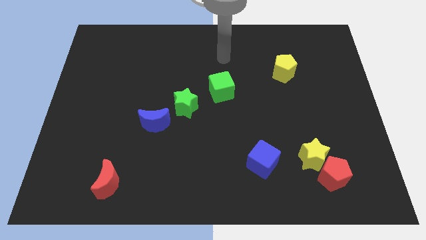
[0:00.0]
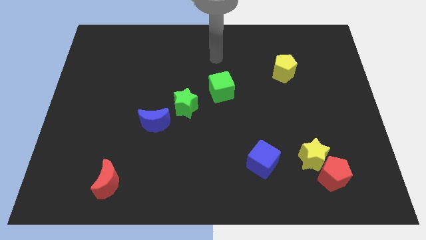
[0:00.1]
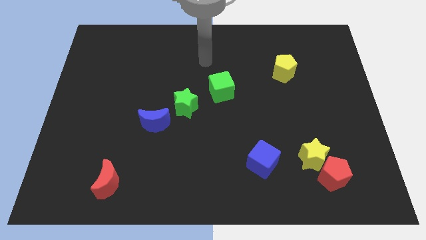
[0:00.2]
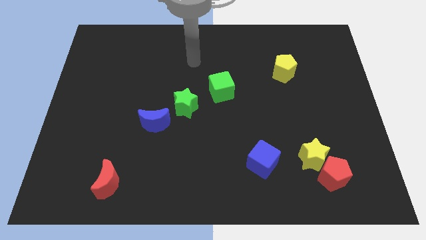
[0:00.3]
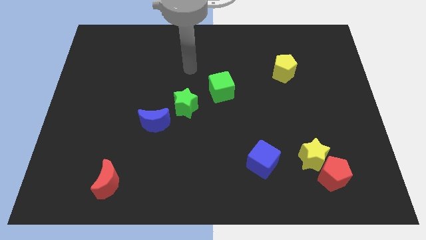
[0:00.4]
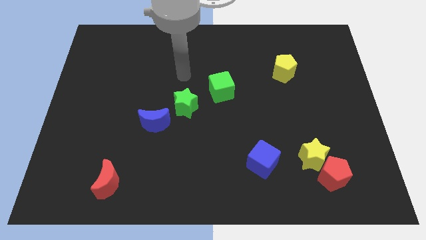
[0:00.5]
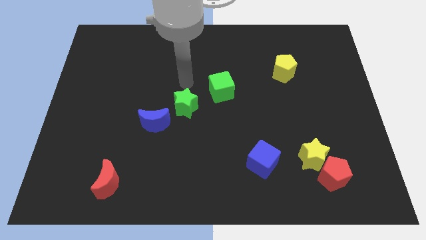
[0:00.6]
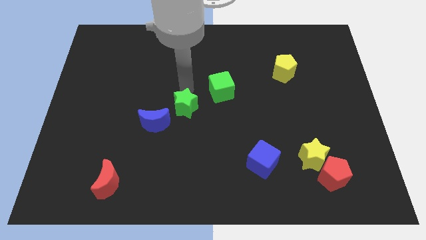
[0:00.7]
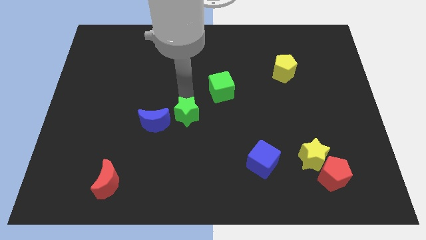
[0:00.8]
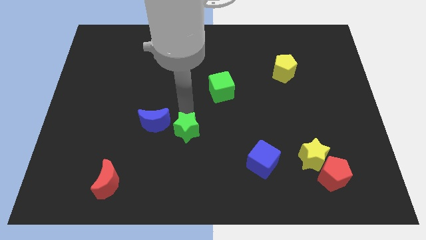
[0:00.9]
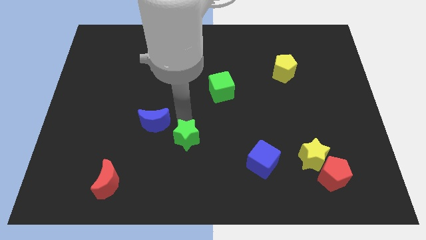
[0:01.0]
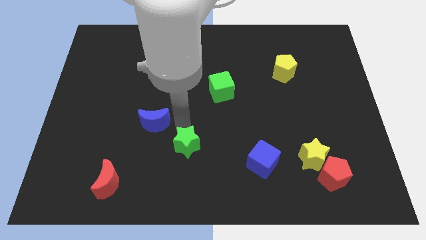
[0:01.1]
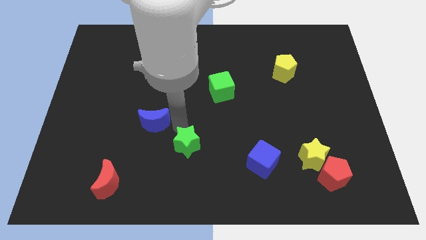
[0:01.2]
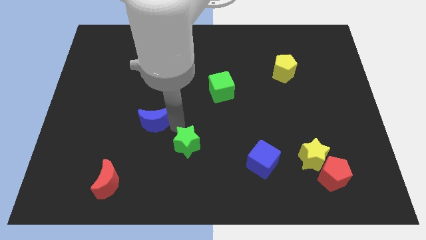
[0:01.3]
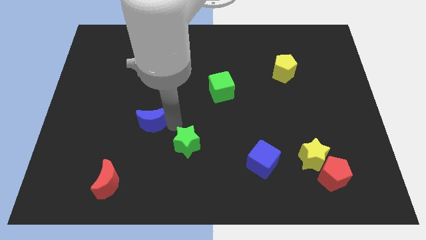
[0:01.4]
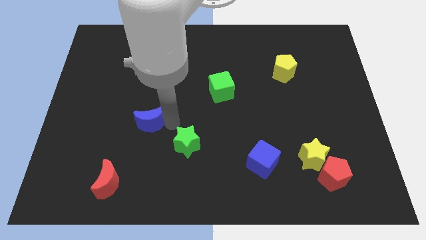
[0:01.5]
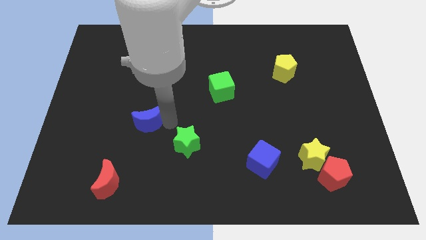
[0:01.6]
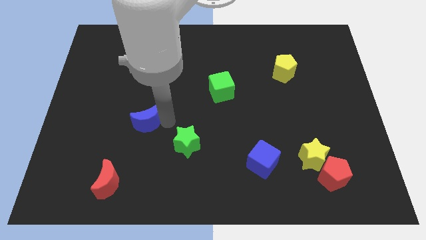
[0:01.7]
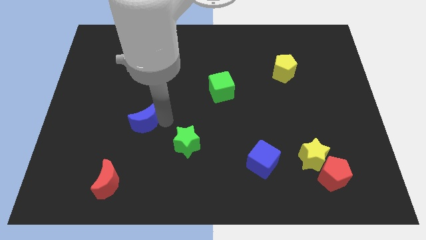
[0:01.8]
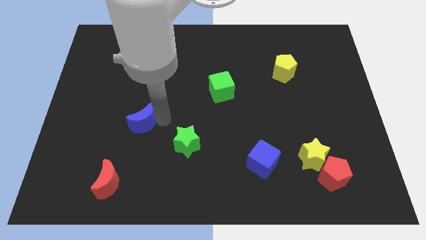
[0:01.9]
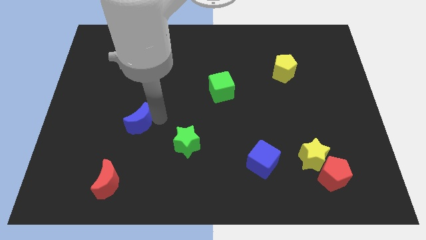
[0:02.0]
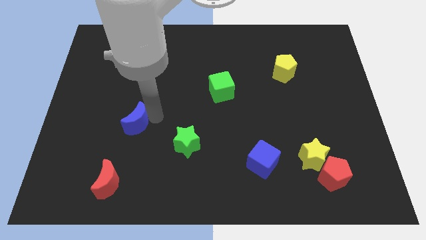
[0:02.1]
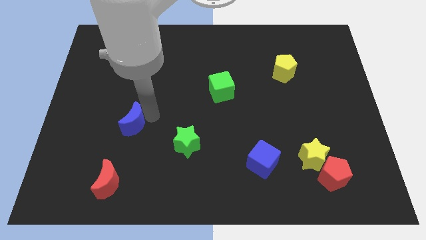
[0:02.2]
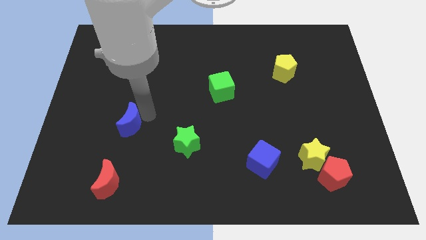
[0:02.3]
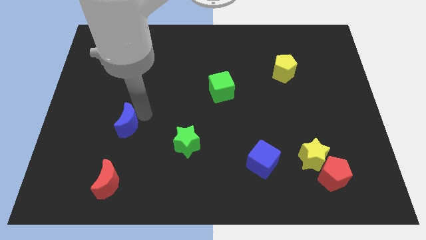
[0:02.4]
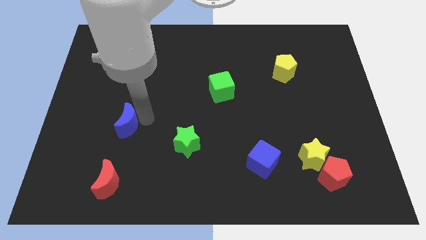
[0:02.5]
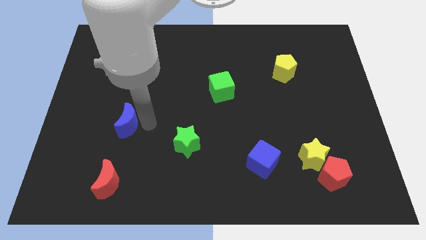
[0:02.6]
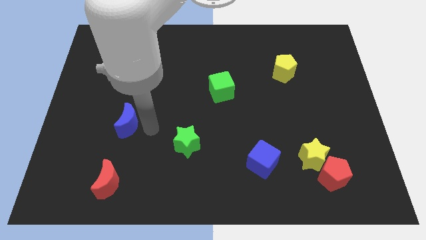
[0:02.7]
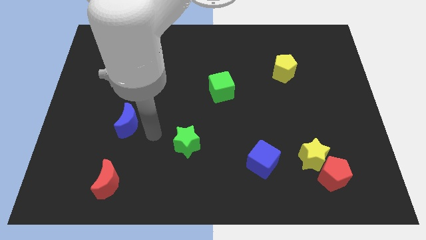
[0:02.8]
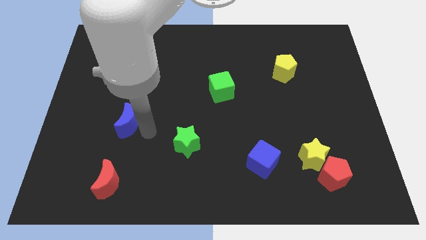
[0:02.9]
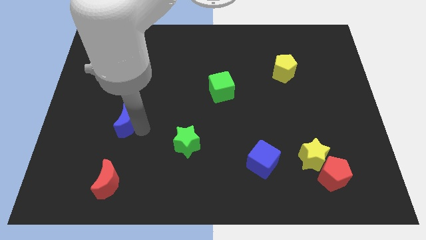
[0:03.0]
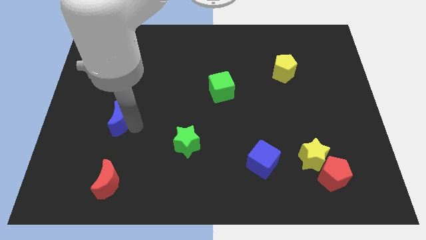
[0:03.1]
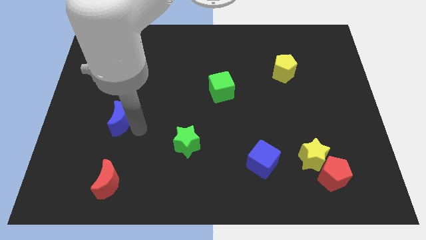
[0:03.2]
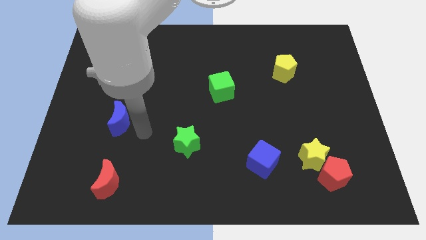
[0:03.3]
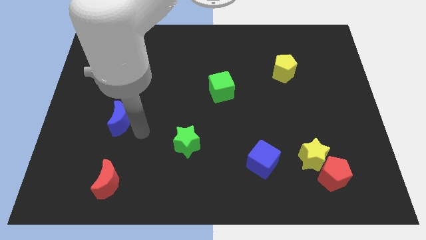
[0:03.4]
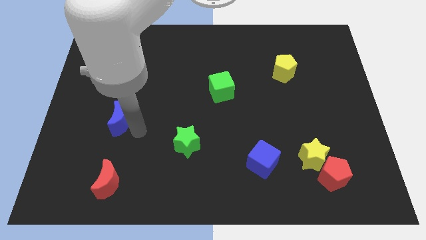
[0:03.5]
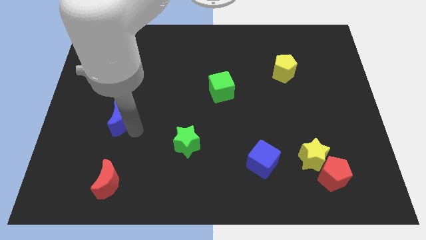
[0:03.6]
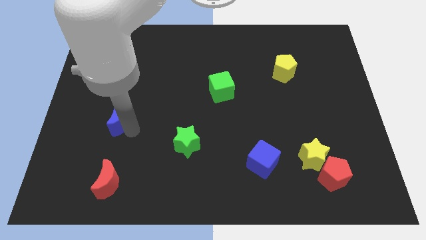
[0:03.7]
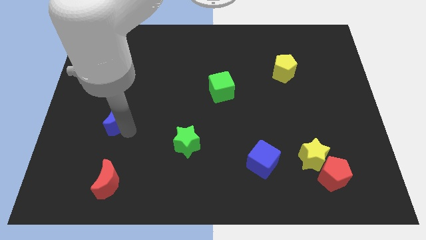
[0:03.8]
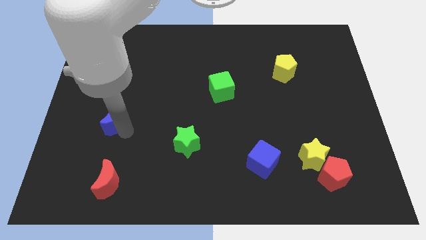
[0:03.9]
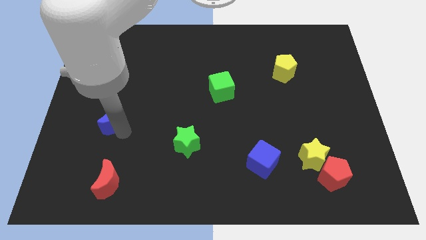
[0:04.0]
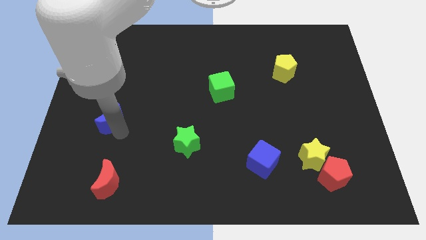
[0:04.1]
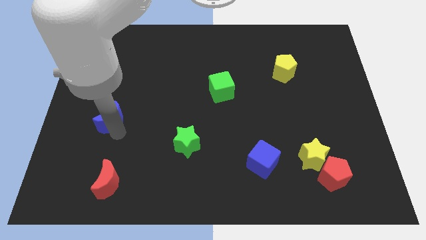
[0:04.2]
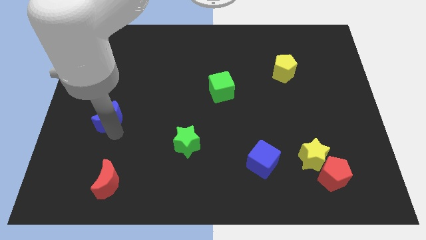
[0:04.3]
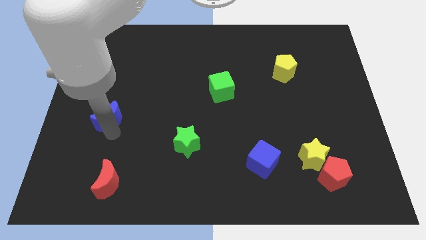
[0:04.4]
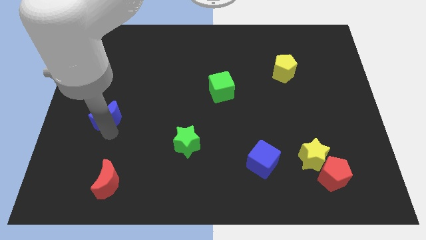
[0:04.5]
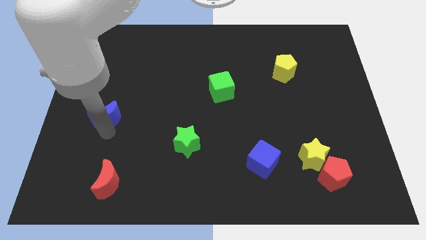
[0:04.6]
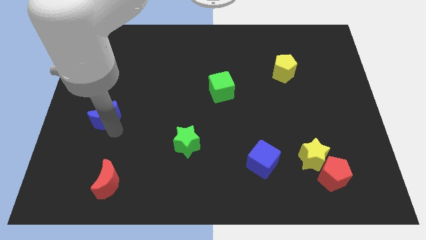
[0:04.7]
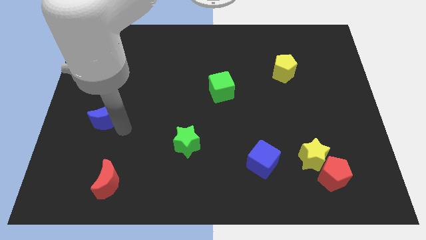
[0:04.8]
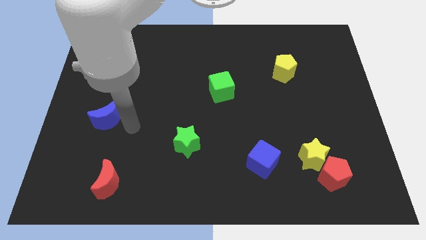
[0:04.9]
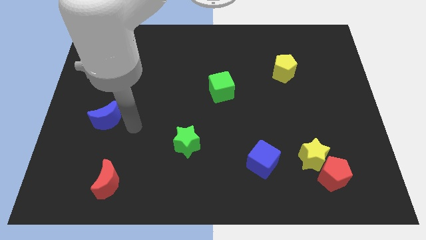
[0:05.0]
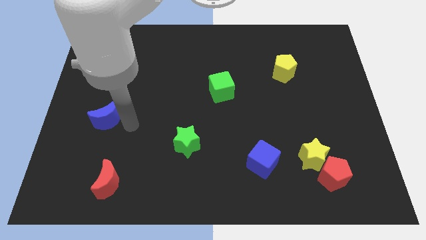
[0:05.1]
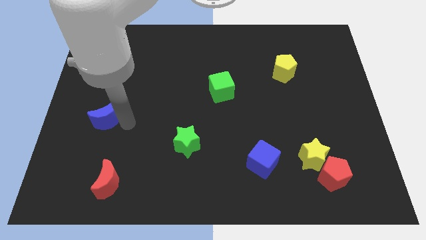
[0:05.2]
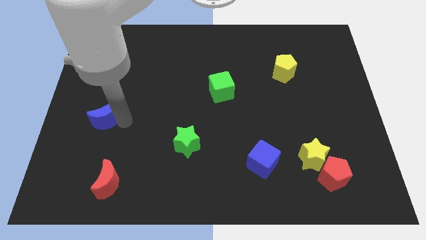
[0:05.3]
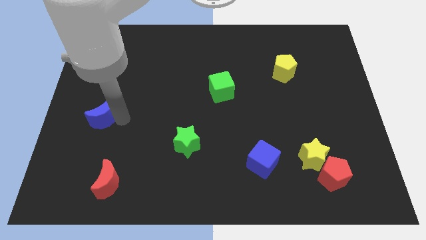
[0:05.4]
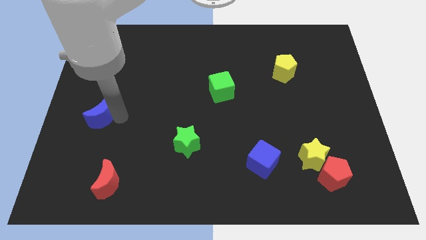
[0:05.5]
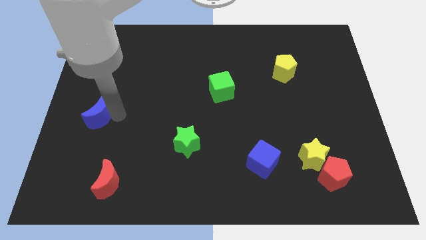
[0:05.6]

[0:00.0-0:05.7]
put the blue moon to the center left

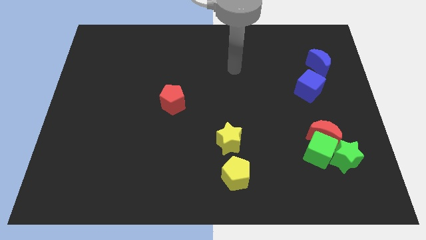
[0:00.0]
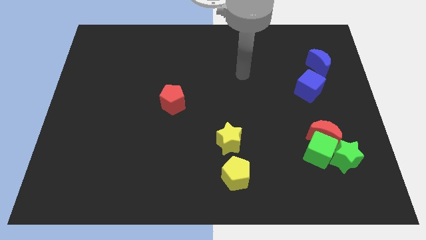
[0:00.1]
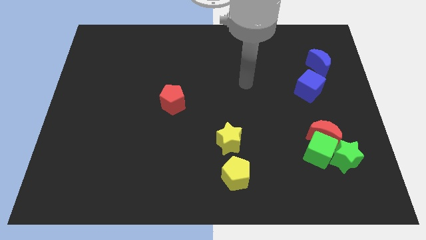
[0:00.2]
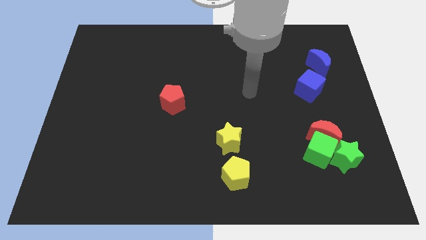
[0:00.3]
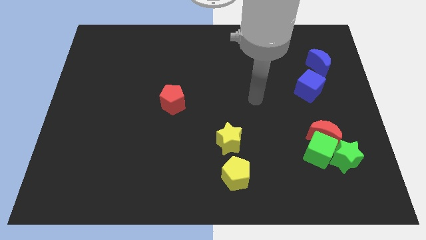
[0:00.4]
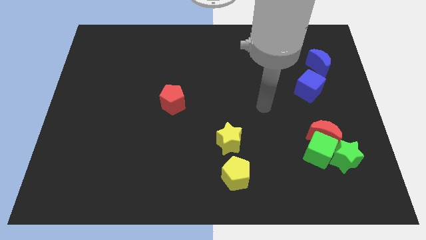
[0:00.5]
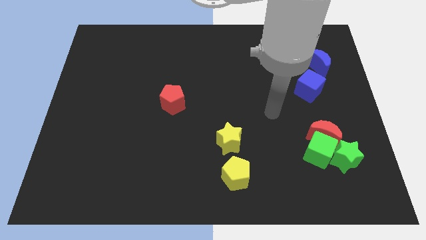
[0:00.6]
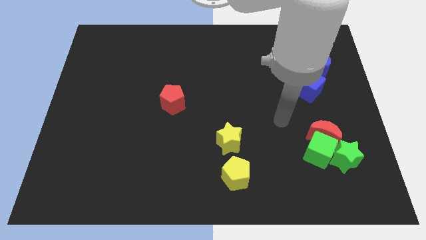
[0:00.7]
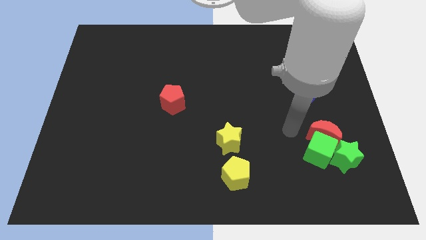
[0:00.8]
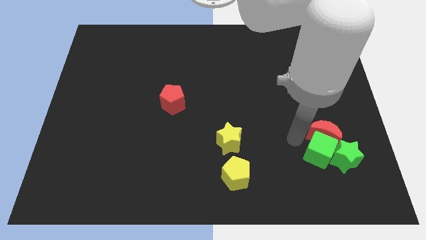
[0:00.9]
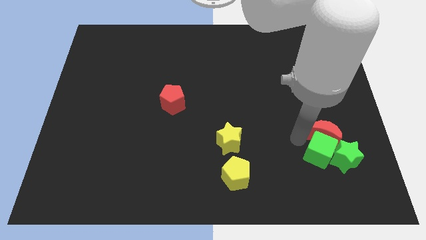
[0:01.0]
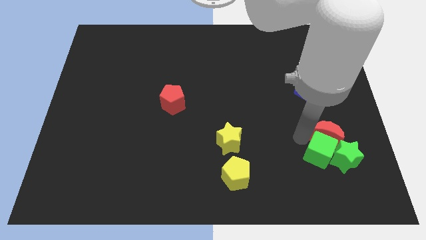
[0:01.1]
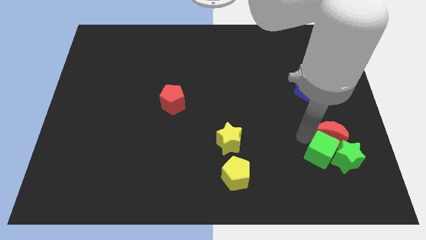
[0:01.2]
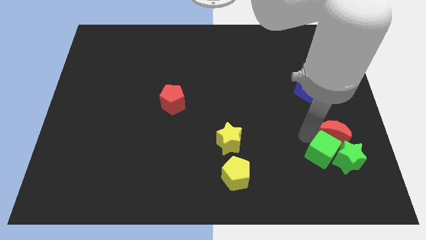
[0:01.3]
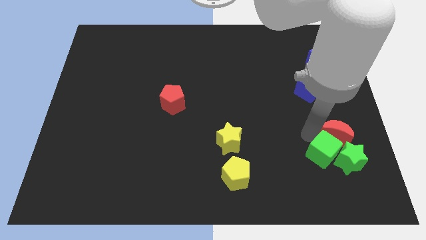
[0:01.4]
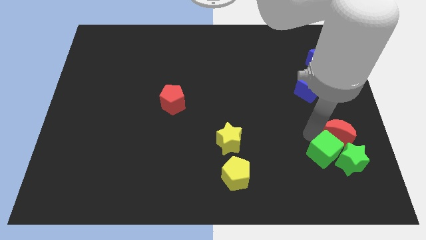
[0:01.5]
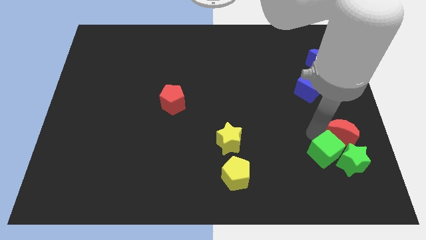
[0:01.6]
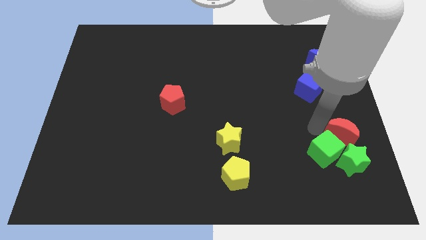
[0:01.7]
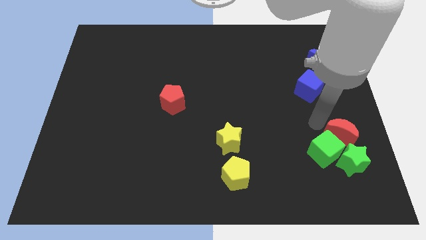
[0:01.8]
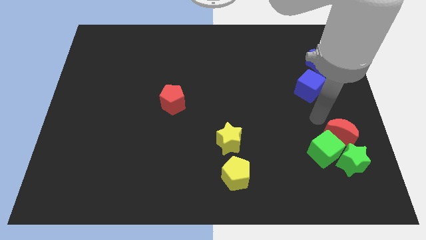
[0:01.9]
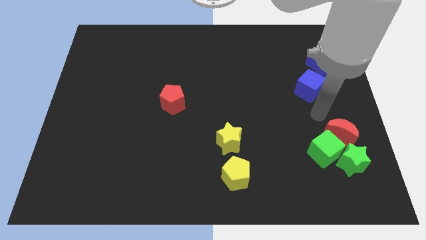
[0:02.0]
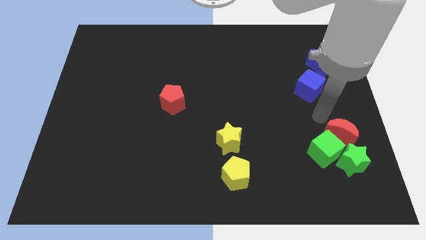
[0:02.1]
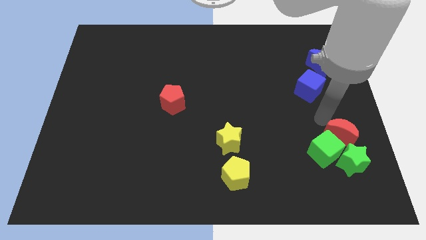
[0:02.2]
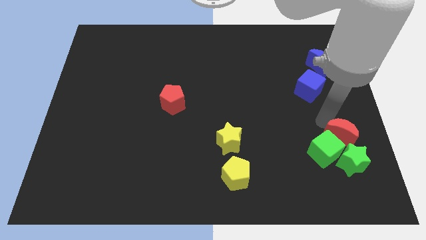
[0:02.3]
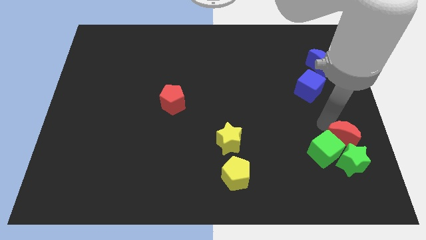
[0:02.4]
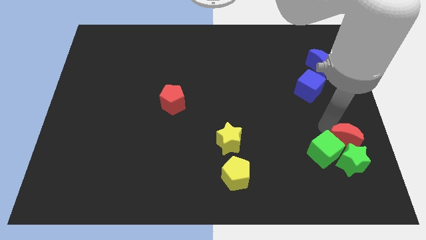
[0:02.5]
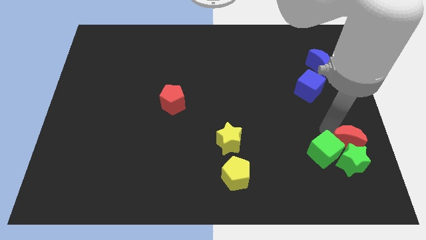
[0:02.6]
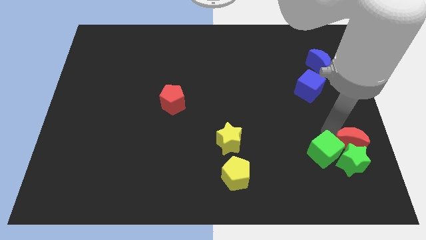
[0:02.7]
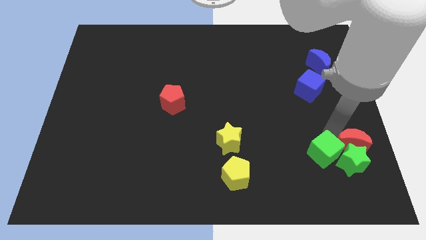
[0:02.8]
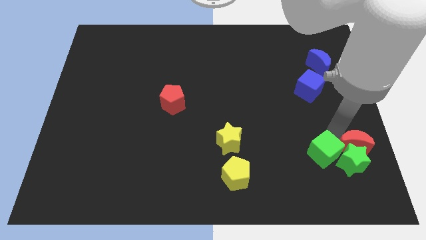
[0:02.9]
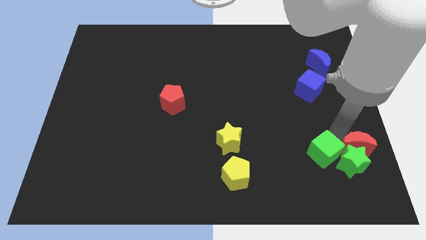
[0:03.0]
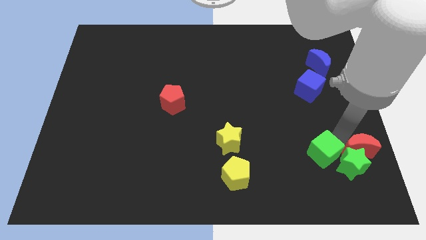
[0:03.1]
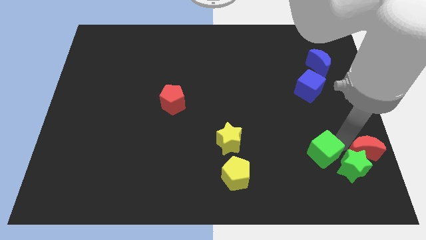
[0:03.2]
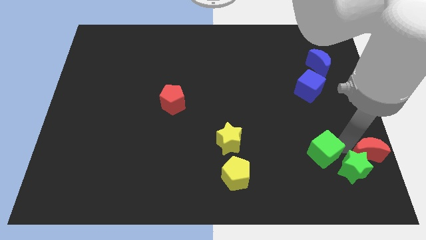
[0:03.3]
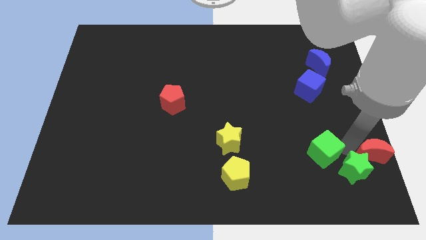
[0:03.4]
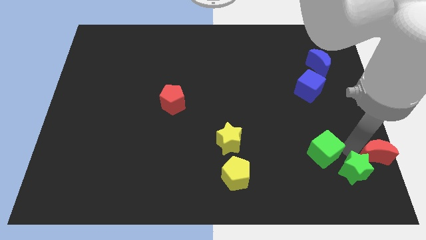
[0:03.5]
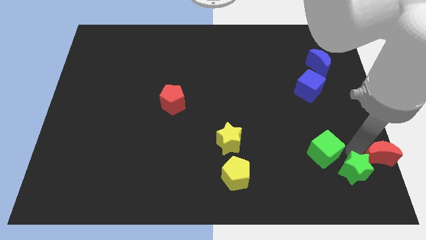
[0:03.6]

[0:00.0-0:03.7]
push the red moon to the bottom right of the board
